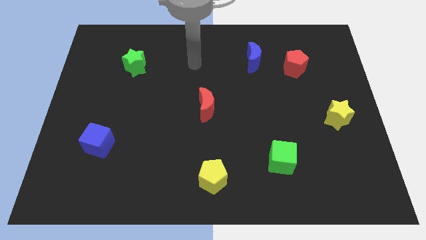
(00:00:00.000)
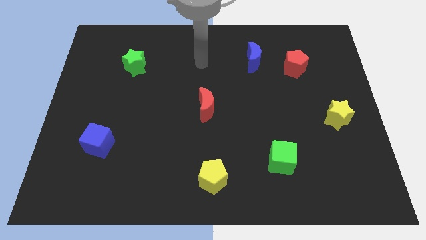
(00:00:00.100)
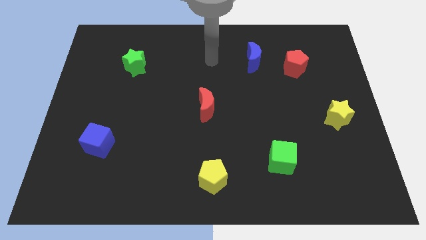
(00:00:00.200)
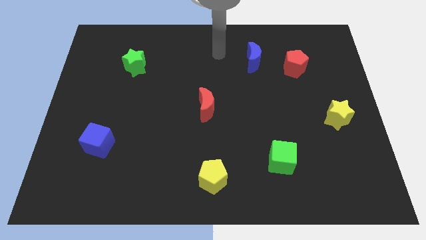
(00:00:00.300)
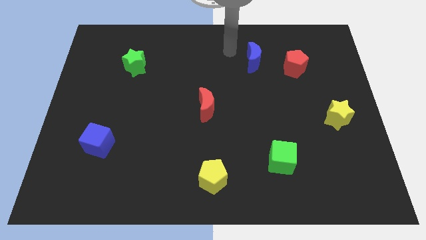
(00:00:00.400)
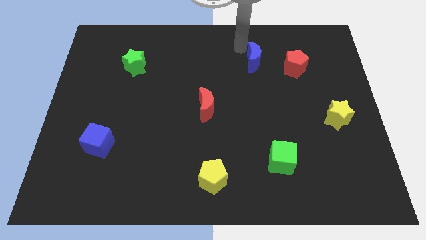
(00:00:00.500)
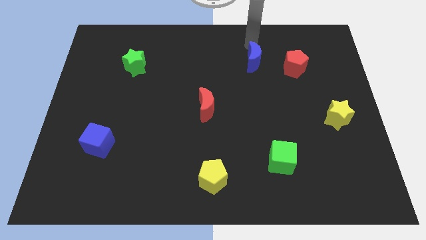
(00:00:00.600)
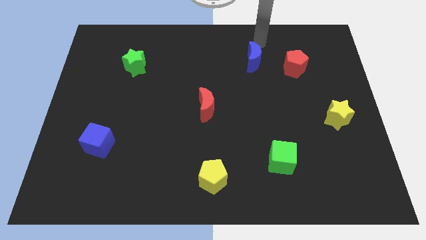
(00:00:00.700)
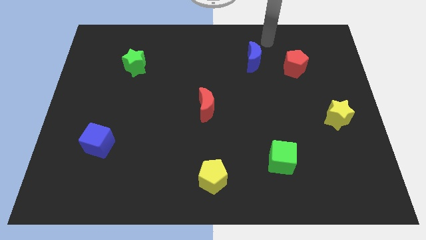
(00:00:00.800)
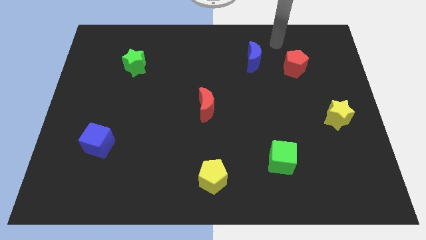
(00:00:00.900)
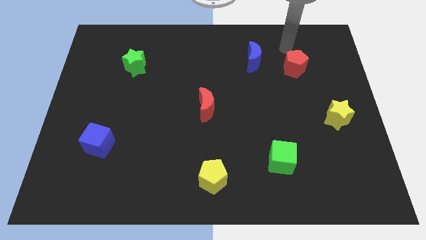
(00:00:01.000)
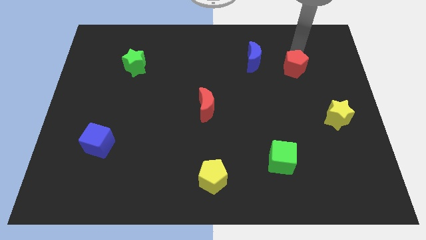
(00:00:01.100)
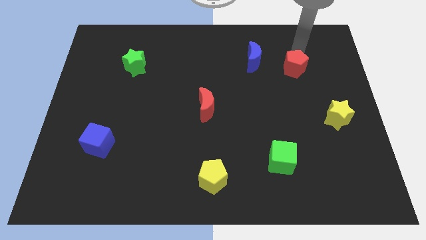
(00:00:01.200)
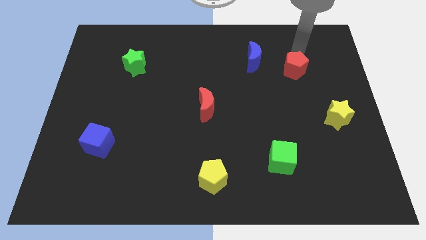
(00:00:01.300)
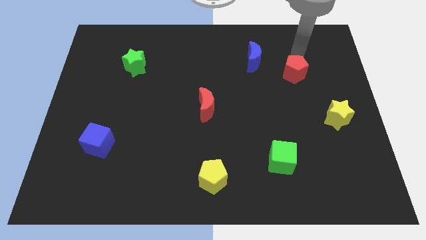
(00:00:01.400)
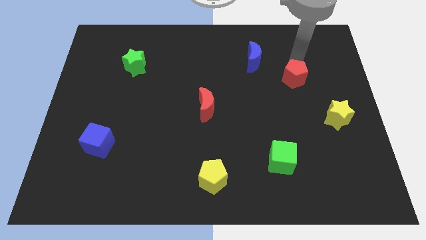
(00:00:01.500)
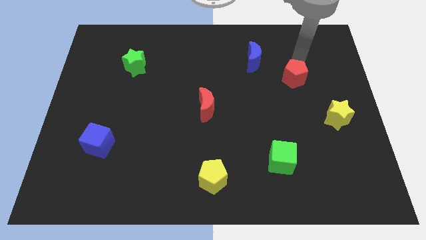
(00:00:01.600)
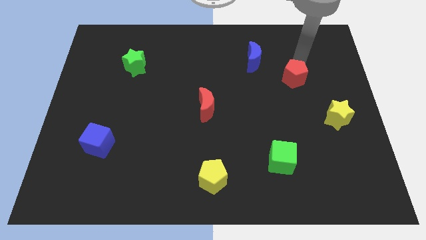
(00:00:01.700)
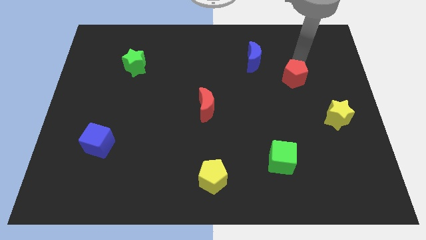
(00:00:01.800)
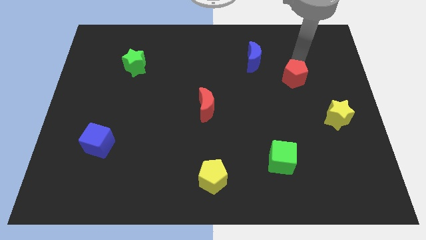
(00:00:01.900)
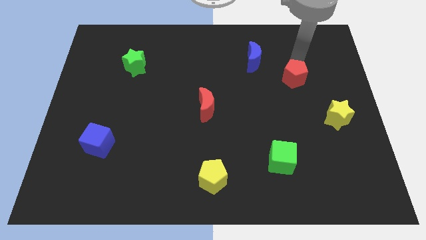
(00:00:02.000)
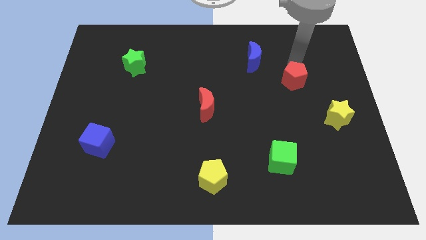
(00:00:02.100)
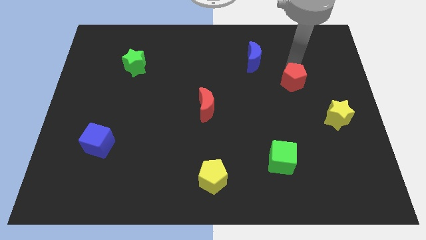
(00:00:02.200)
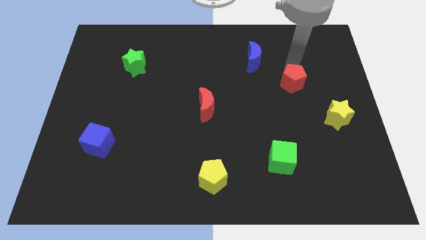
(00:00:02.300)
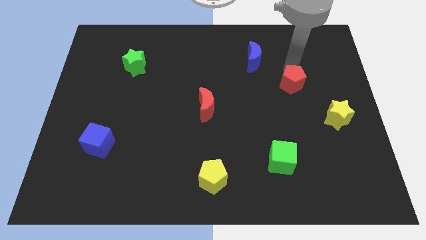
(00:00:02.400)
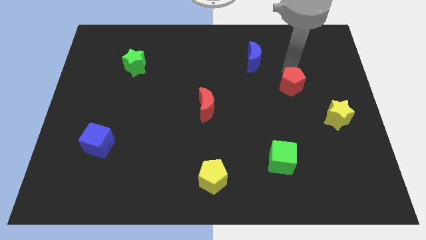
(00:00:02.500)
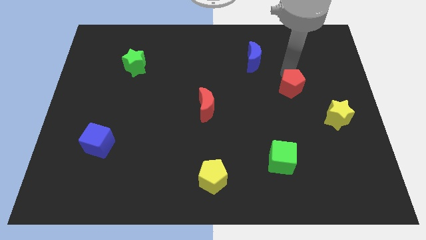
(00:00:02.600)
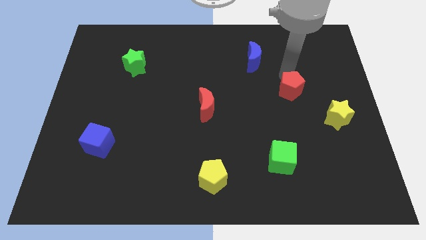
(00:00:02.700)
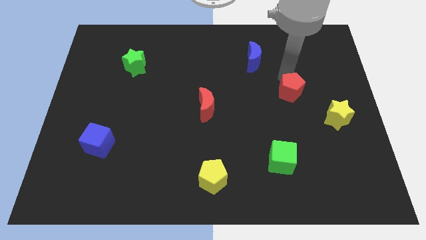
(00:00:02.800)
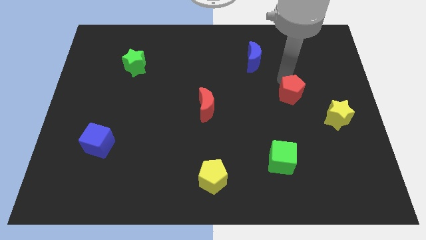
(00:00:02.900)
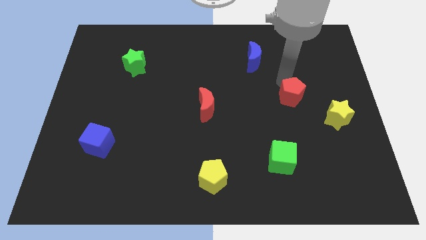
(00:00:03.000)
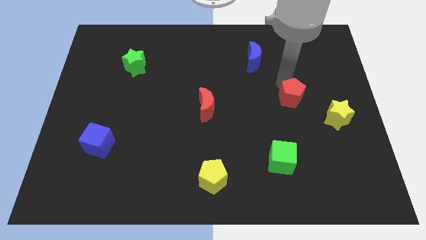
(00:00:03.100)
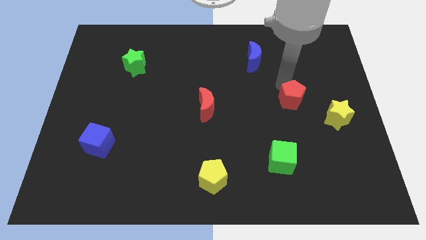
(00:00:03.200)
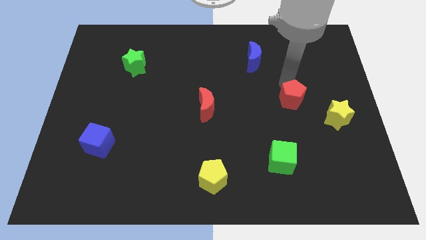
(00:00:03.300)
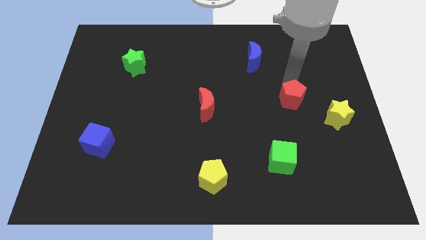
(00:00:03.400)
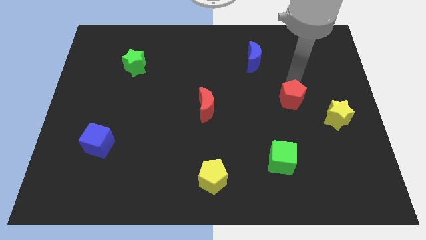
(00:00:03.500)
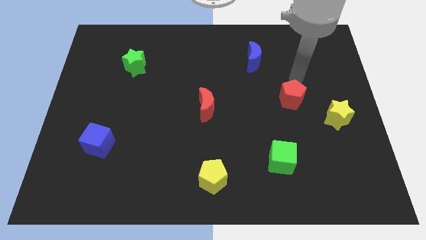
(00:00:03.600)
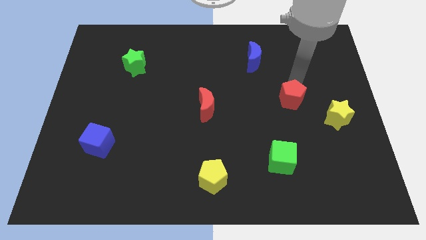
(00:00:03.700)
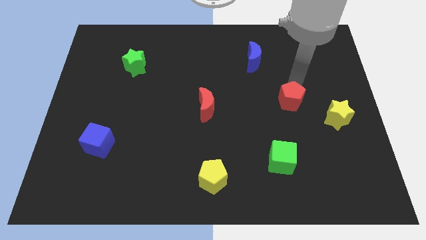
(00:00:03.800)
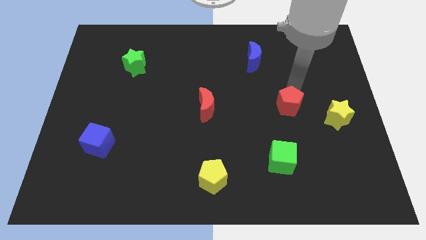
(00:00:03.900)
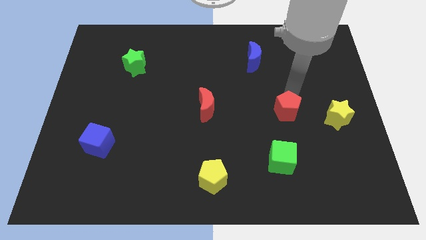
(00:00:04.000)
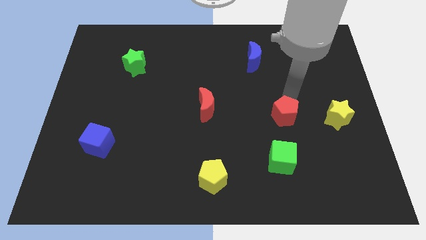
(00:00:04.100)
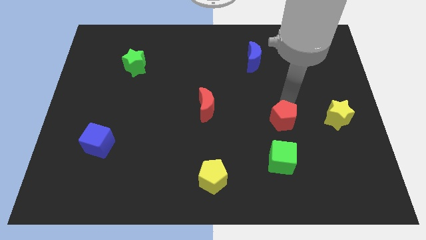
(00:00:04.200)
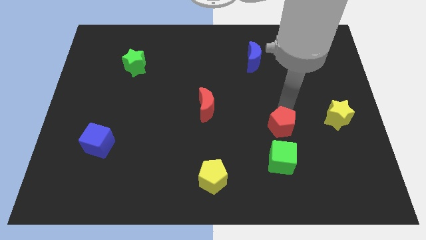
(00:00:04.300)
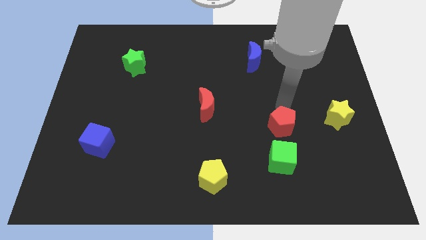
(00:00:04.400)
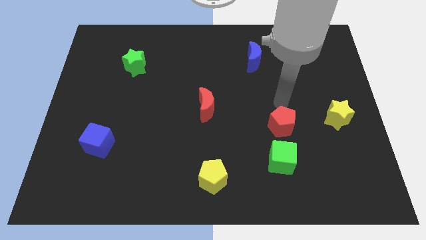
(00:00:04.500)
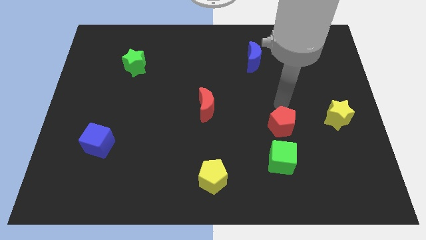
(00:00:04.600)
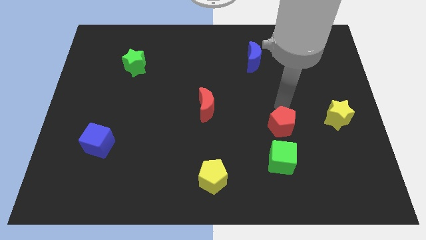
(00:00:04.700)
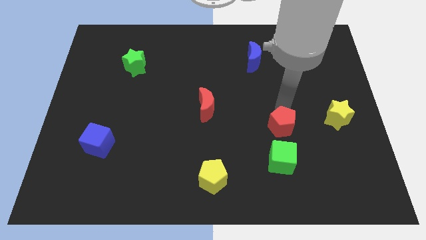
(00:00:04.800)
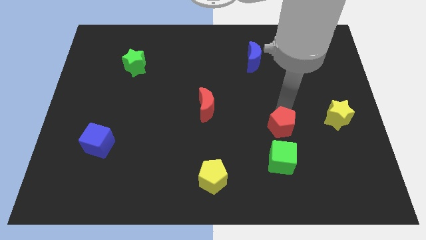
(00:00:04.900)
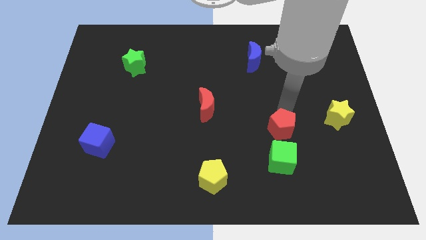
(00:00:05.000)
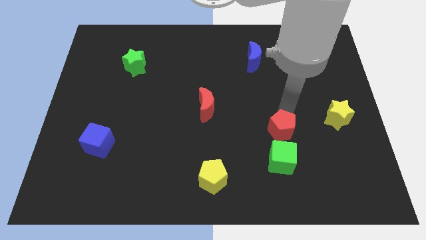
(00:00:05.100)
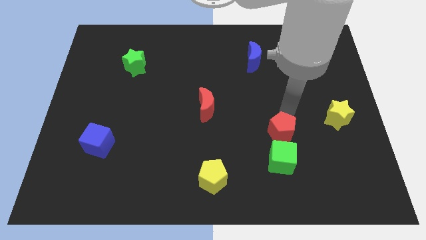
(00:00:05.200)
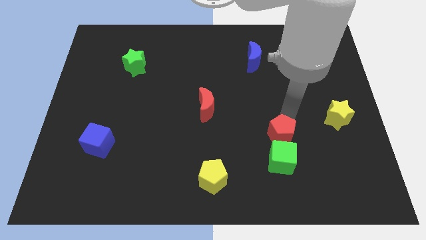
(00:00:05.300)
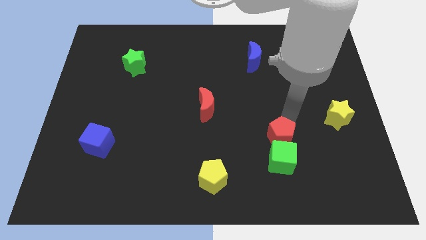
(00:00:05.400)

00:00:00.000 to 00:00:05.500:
put the red pentagon to the green cube

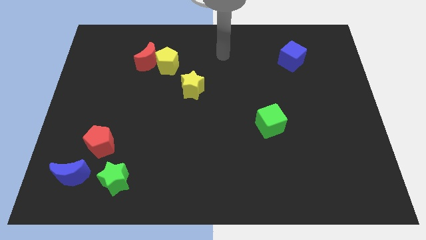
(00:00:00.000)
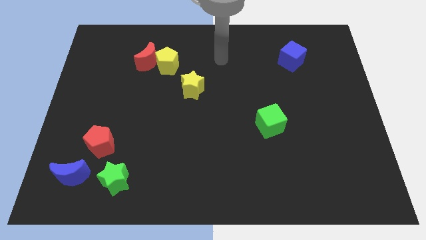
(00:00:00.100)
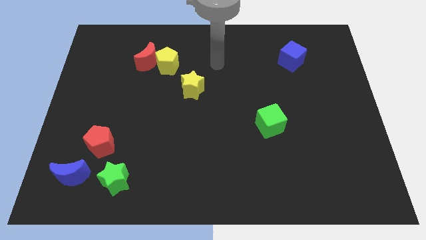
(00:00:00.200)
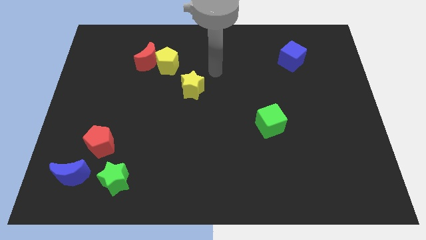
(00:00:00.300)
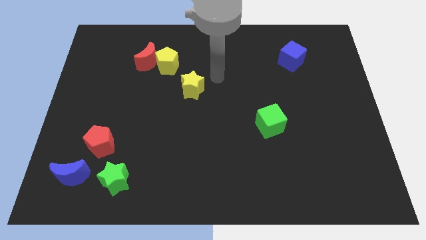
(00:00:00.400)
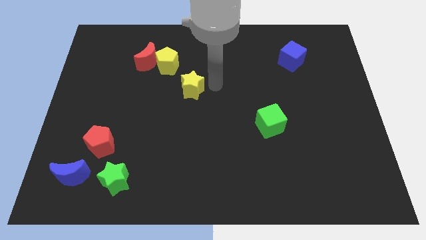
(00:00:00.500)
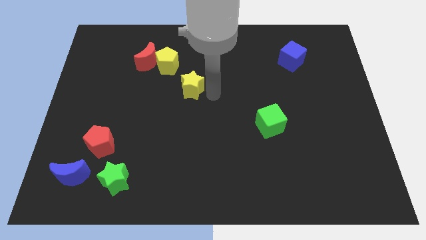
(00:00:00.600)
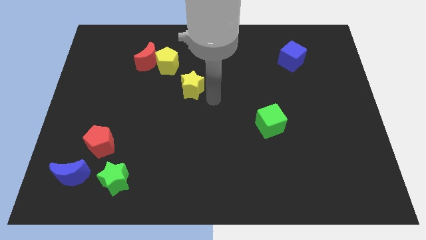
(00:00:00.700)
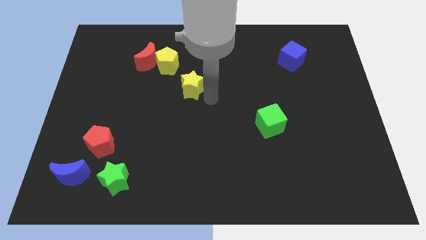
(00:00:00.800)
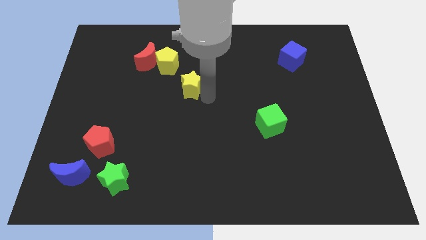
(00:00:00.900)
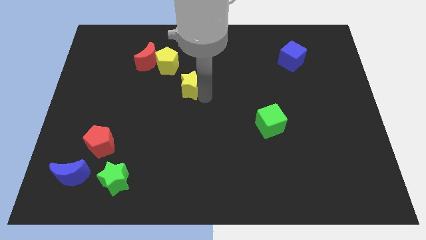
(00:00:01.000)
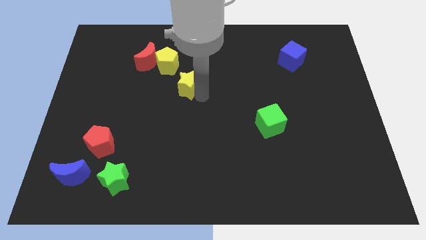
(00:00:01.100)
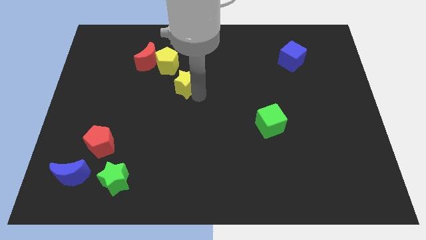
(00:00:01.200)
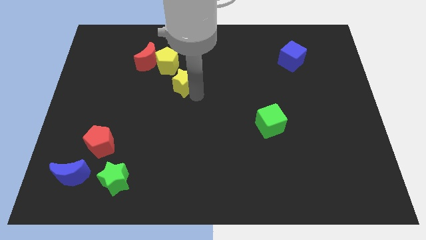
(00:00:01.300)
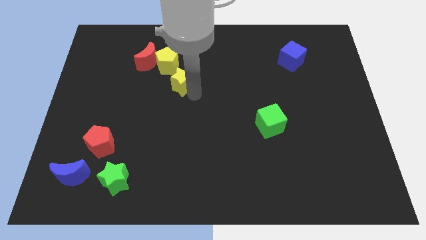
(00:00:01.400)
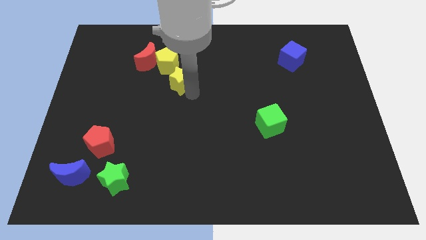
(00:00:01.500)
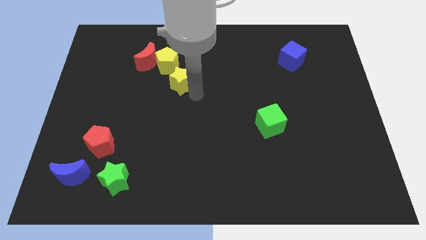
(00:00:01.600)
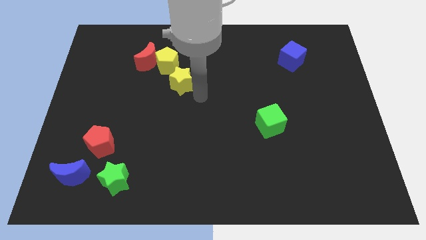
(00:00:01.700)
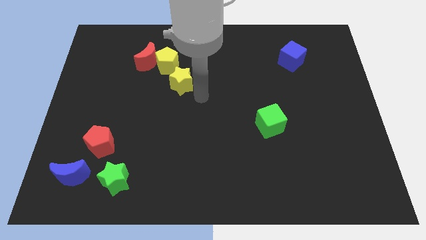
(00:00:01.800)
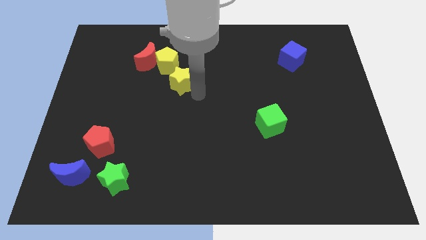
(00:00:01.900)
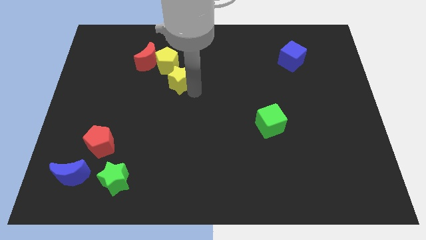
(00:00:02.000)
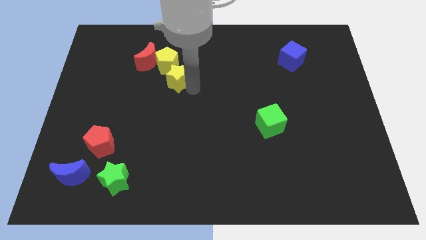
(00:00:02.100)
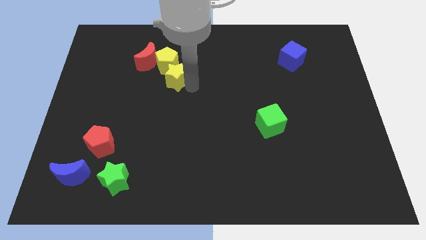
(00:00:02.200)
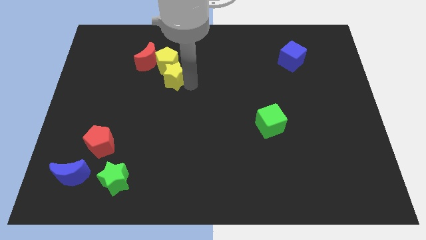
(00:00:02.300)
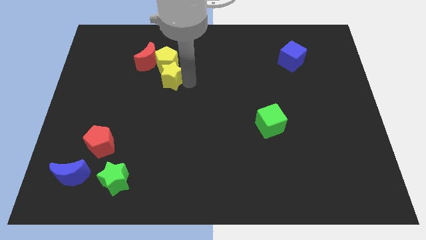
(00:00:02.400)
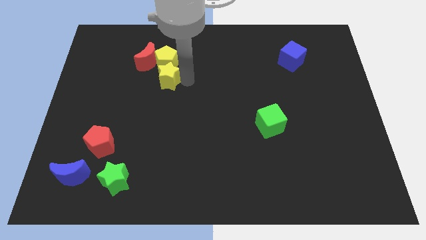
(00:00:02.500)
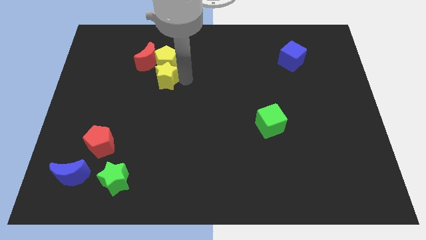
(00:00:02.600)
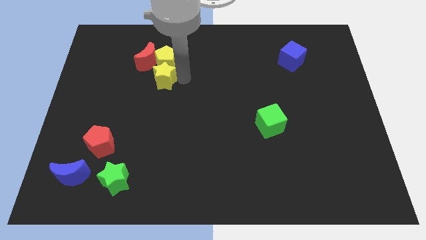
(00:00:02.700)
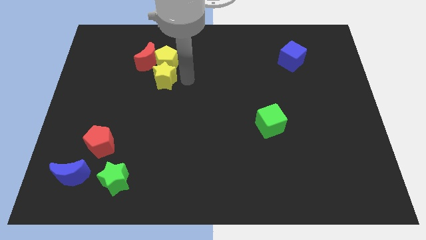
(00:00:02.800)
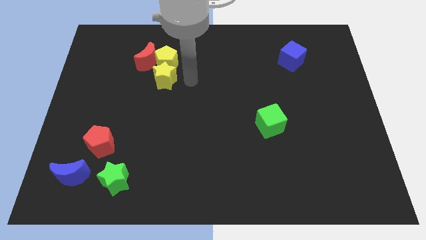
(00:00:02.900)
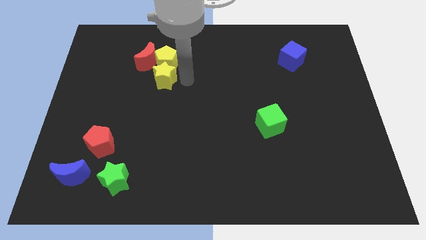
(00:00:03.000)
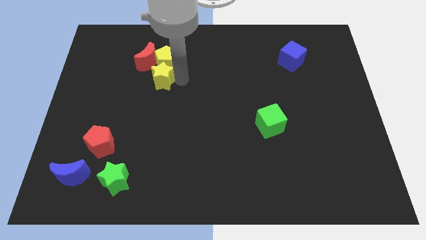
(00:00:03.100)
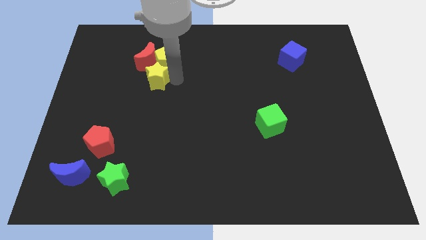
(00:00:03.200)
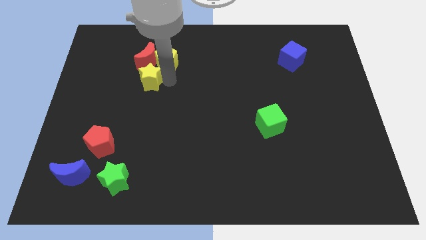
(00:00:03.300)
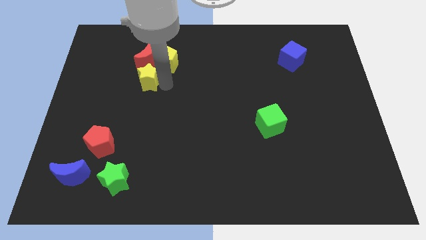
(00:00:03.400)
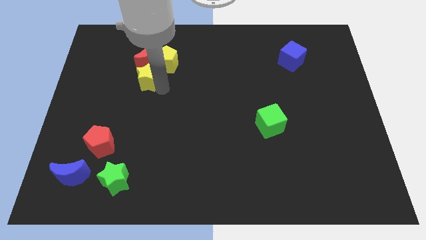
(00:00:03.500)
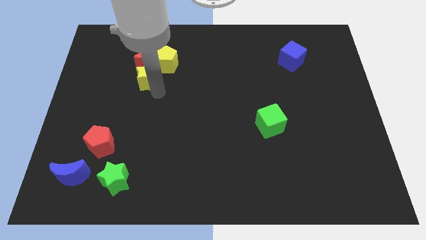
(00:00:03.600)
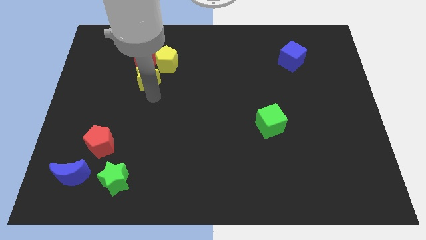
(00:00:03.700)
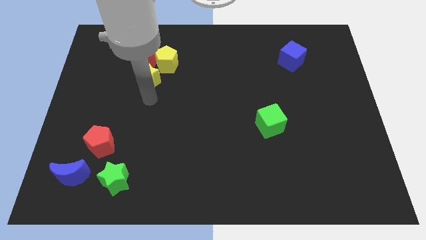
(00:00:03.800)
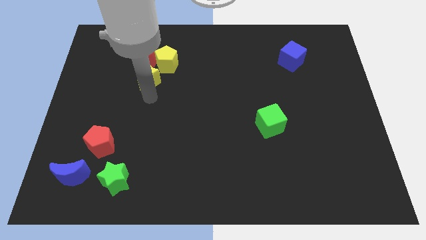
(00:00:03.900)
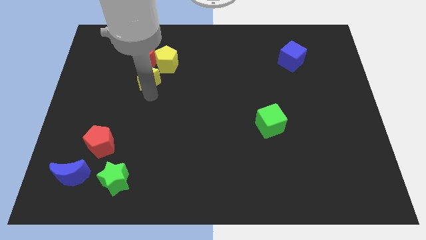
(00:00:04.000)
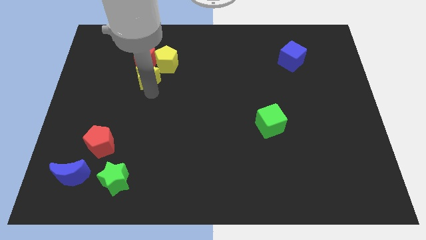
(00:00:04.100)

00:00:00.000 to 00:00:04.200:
move the yellow star towards the red moon
